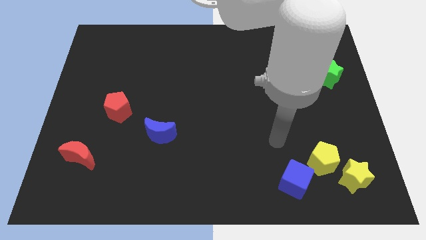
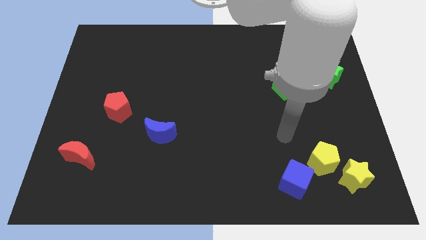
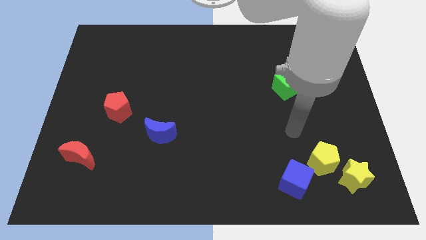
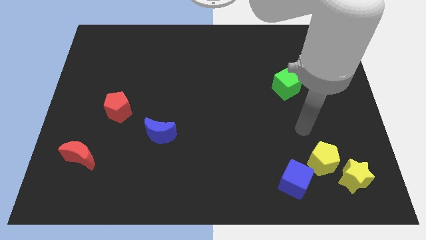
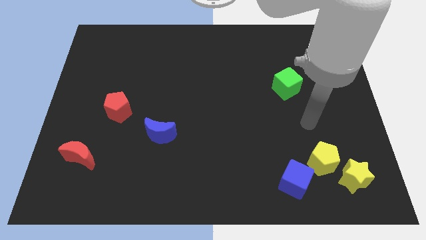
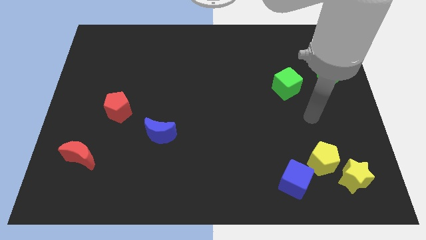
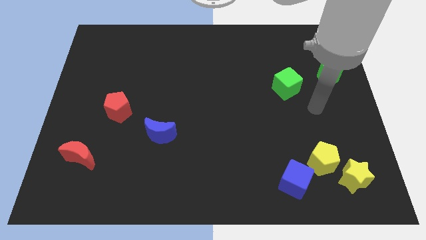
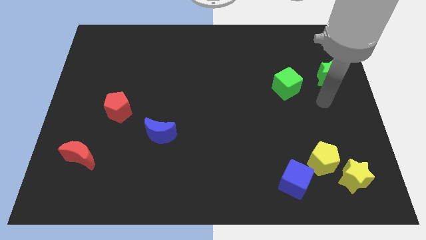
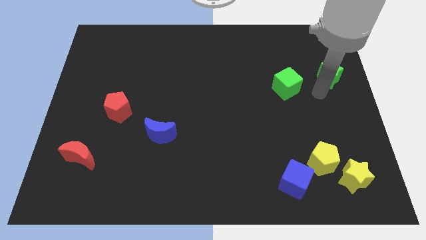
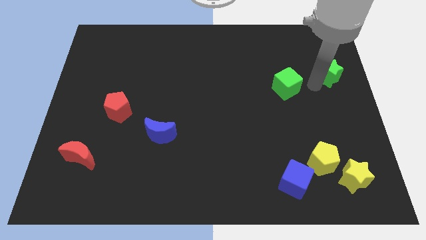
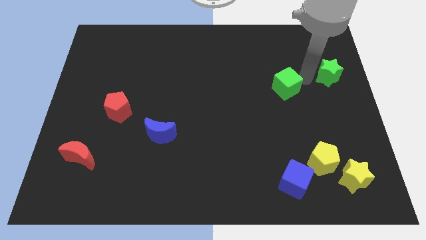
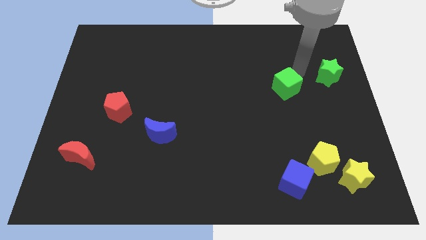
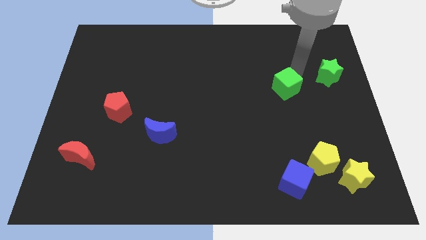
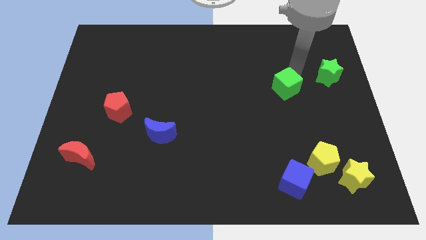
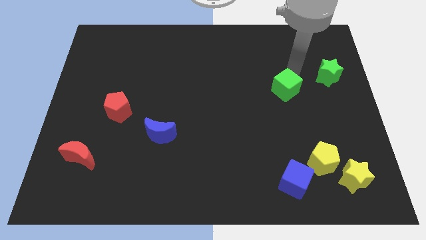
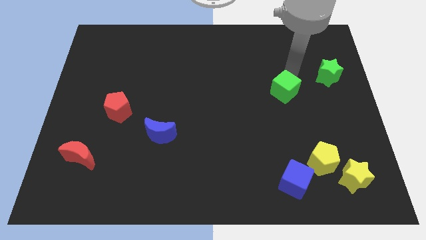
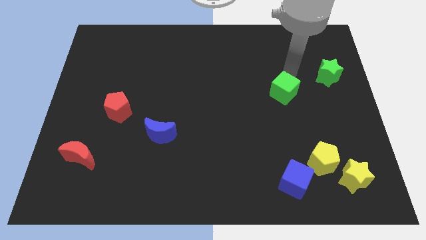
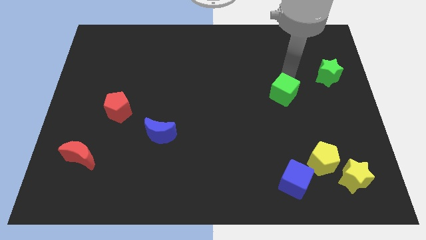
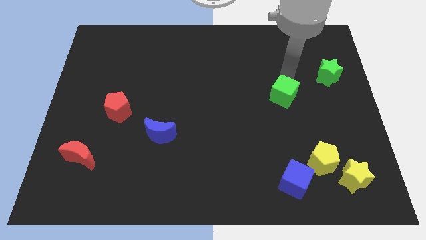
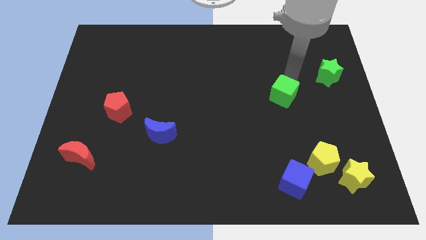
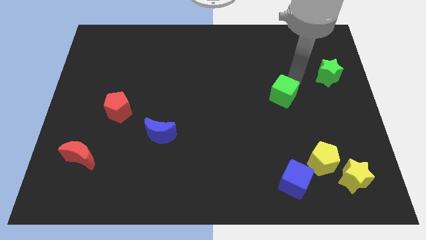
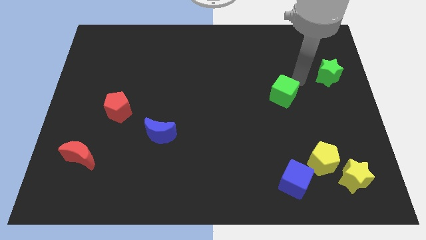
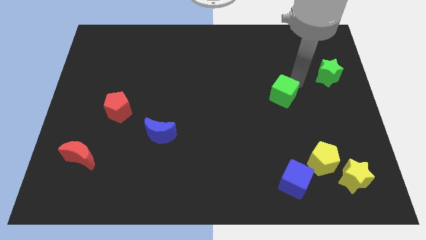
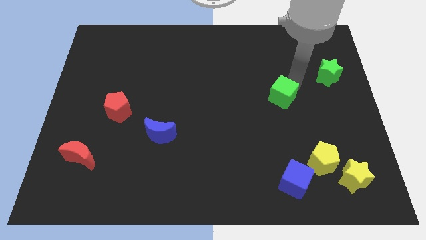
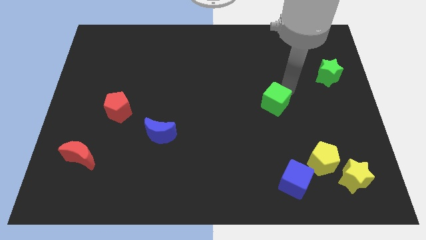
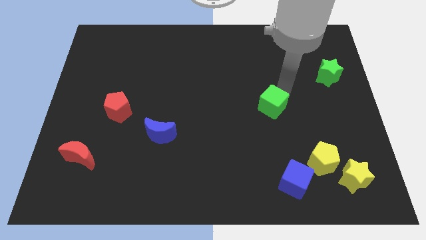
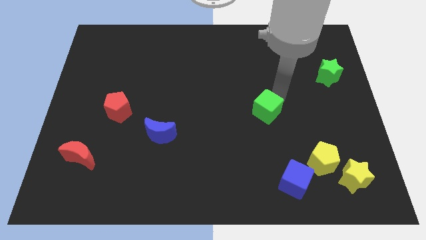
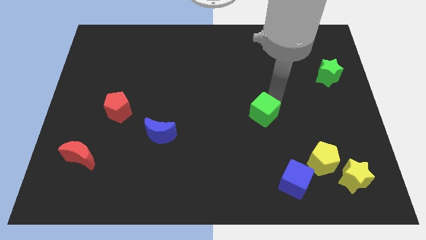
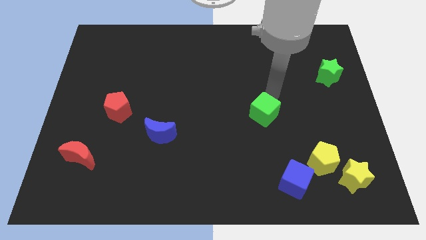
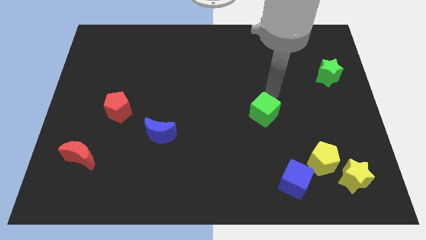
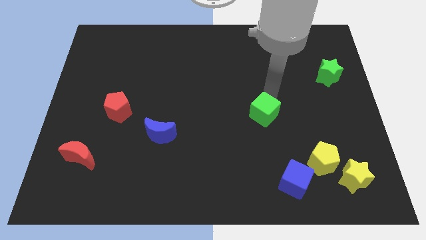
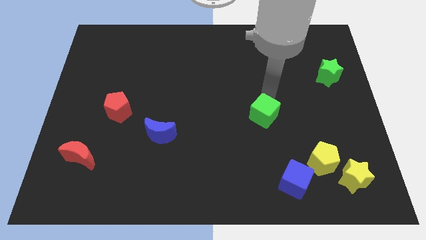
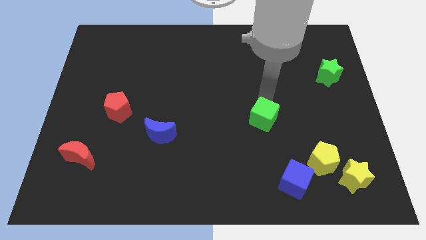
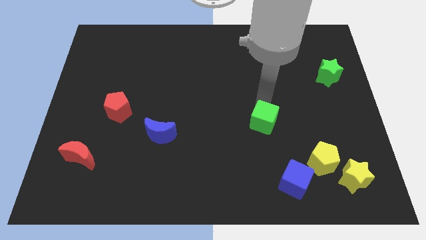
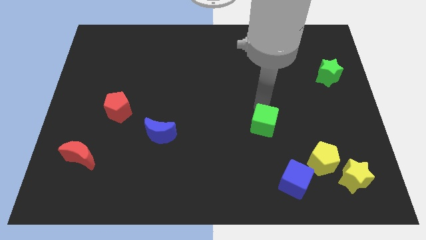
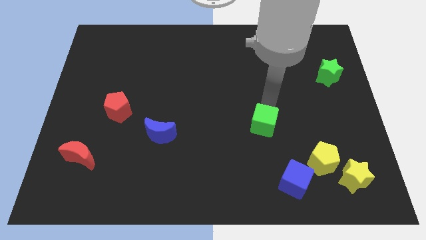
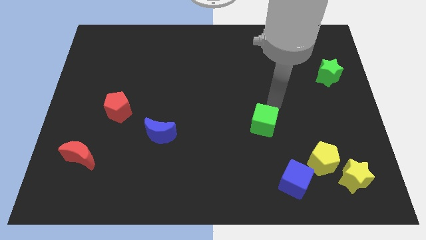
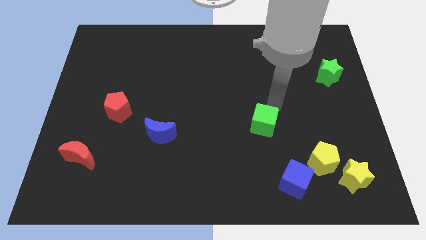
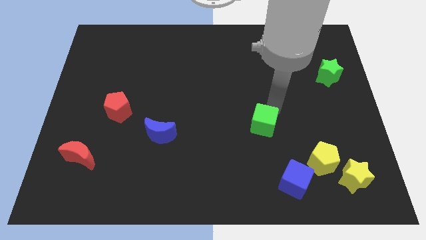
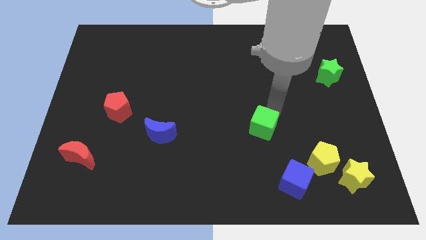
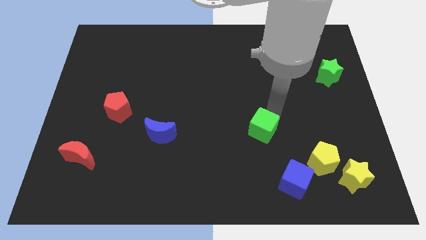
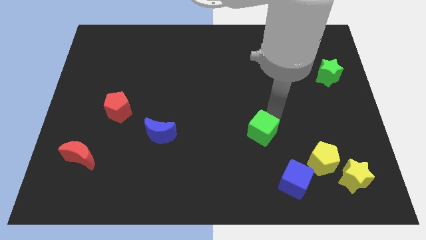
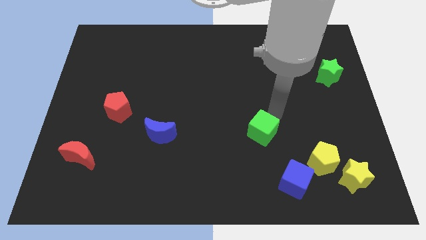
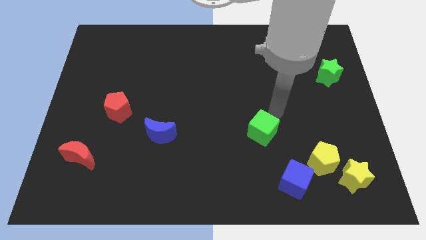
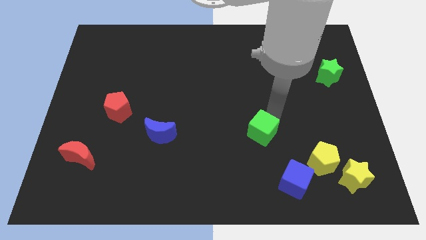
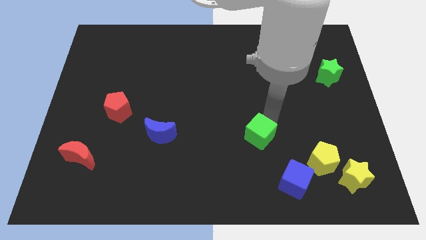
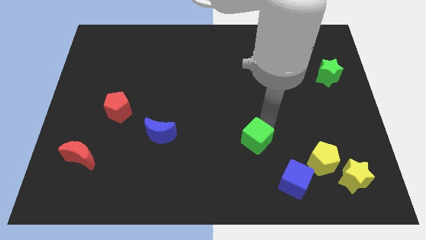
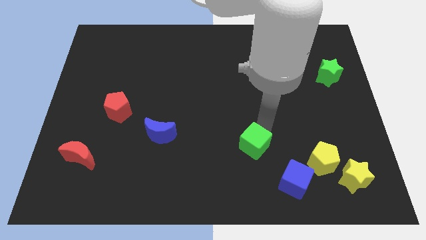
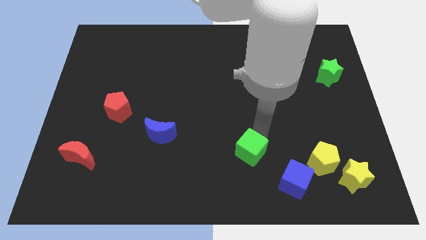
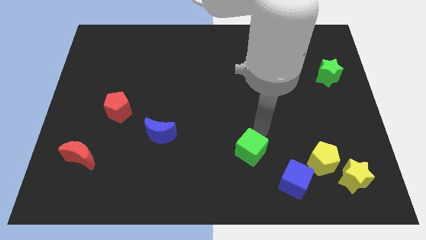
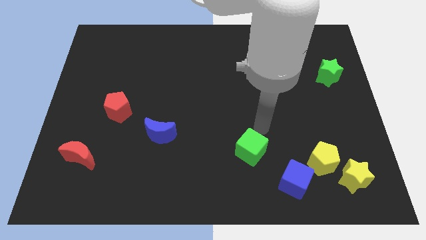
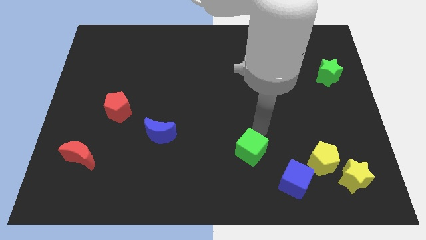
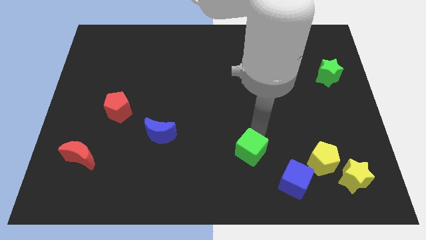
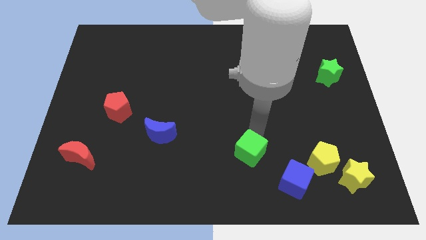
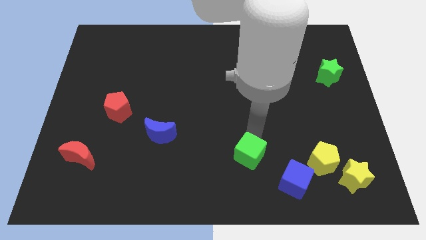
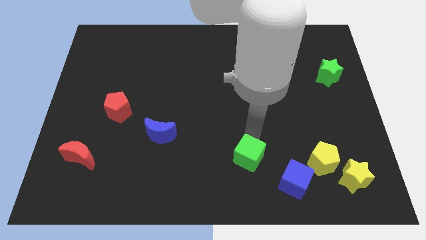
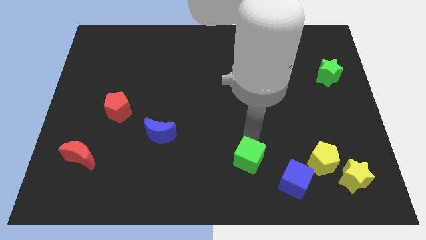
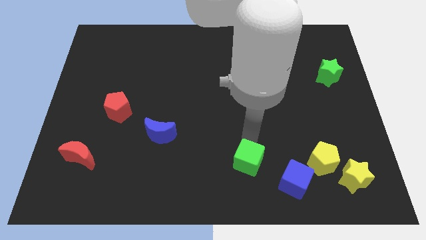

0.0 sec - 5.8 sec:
move the green cube to the bottom side

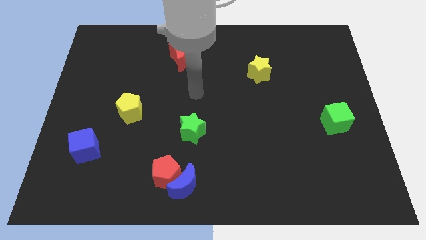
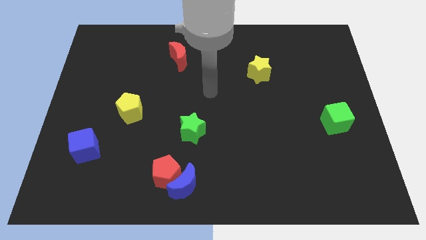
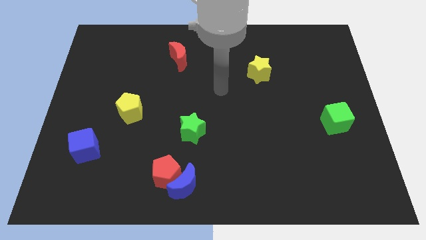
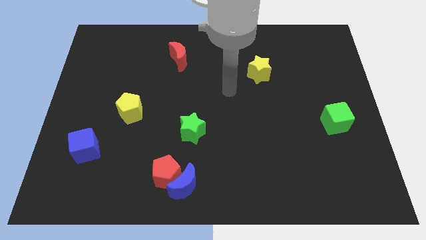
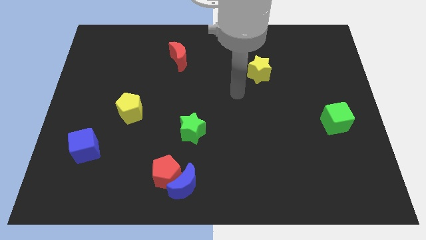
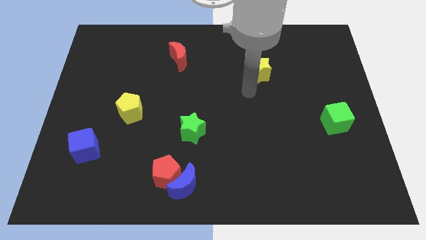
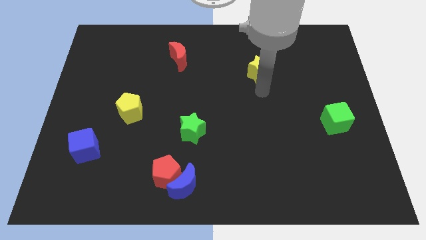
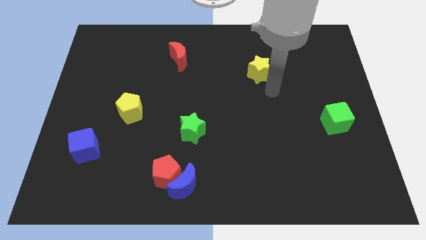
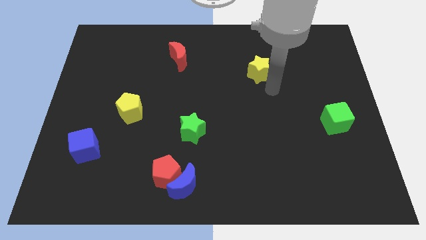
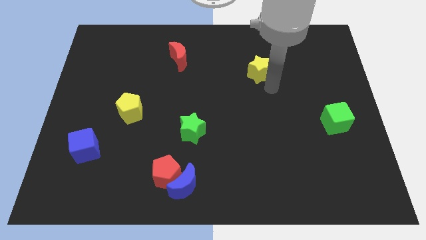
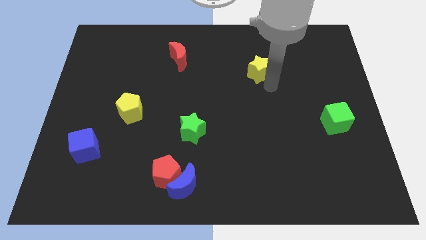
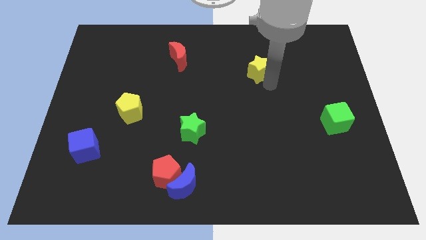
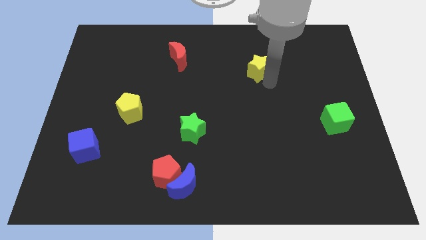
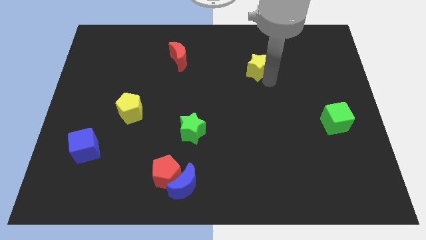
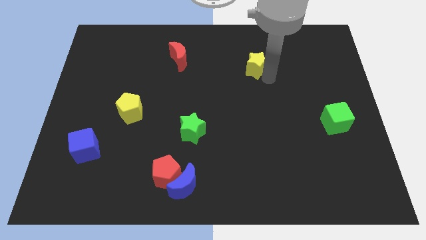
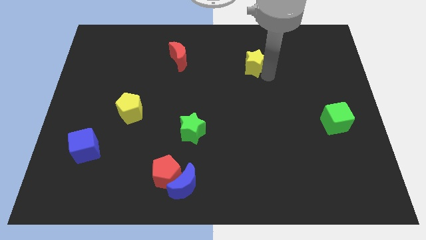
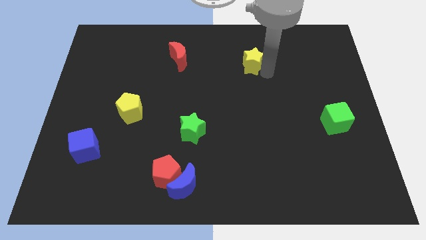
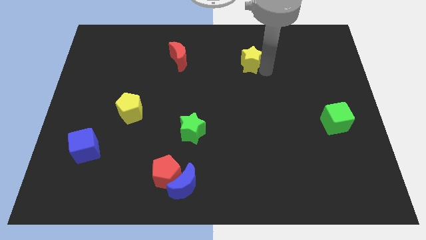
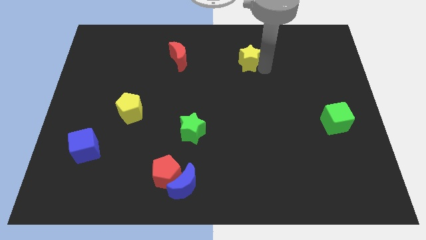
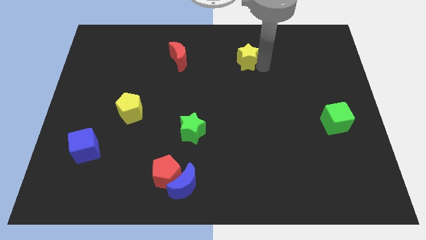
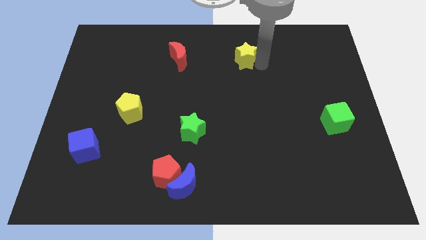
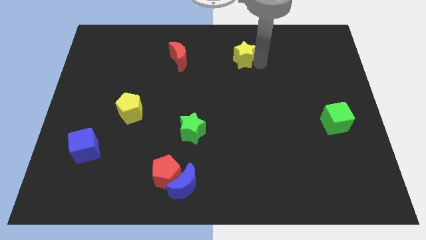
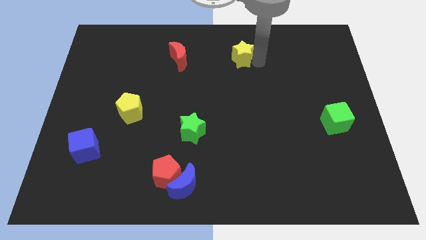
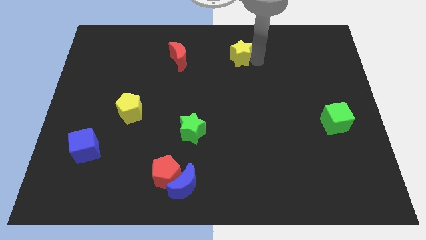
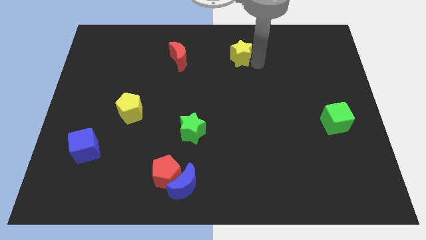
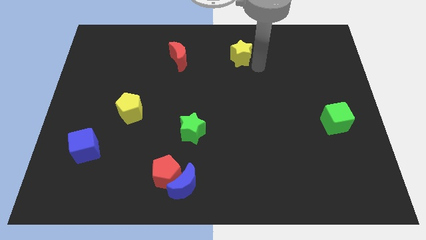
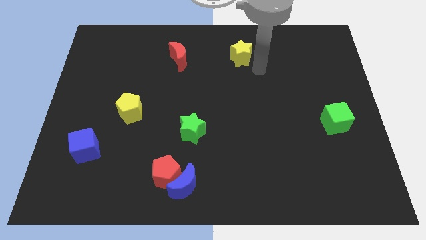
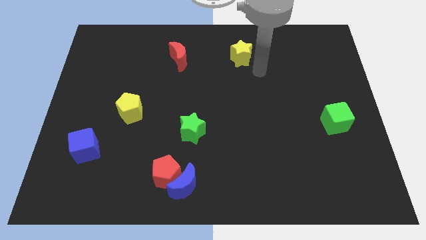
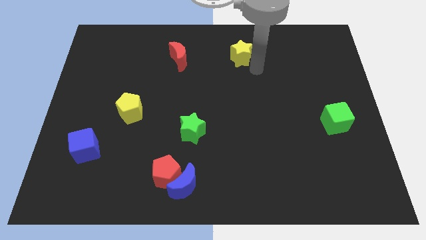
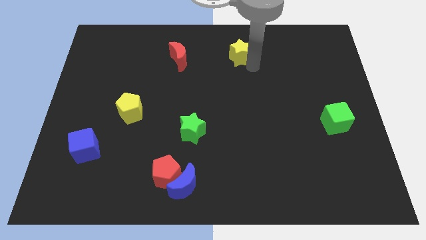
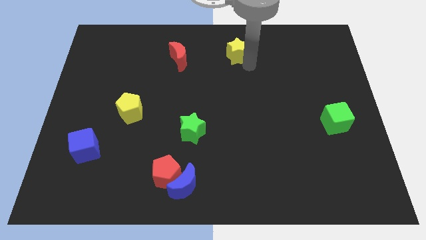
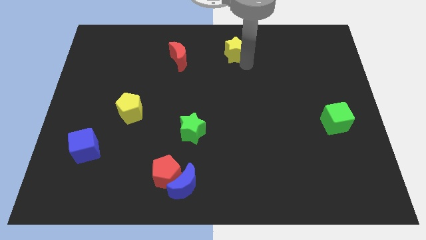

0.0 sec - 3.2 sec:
put the yellow star to the towards your base
